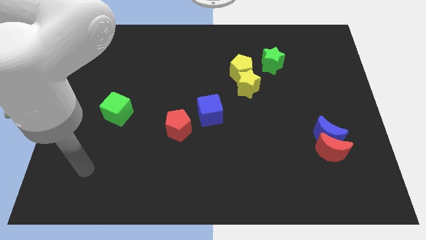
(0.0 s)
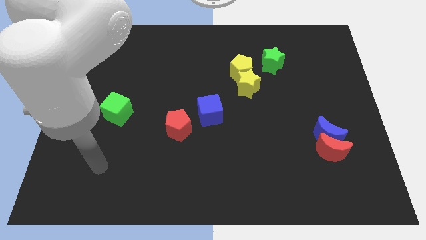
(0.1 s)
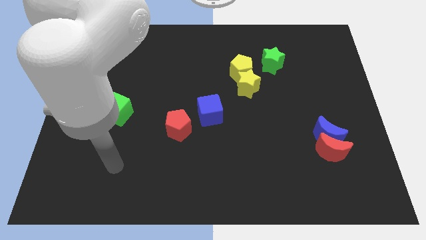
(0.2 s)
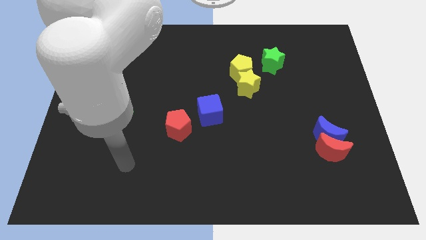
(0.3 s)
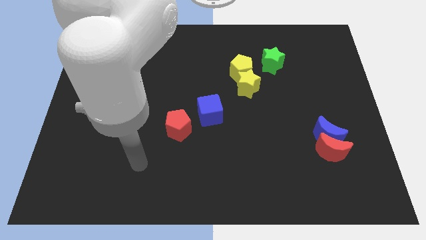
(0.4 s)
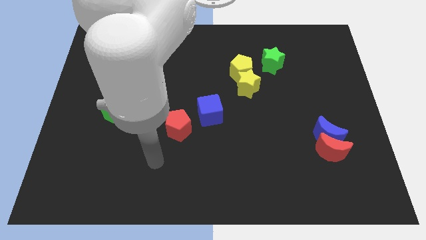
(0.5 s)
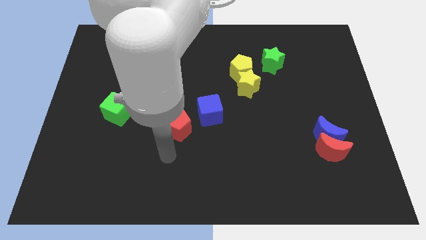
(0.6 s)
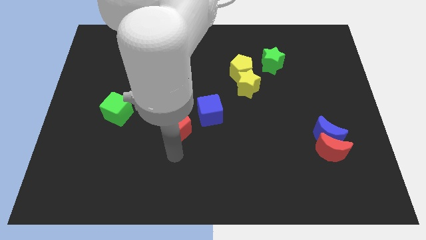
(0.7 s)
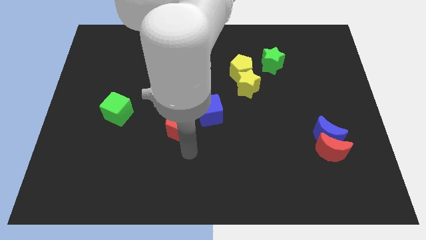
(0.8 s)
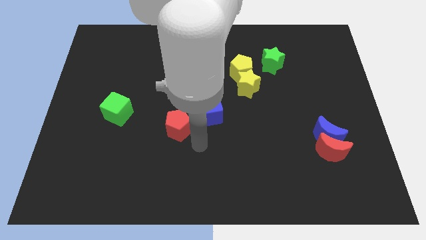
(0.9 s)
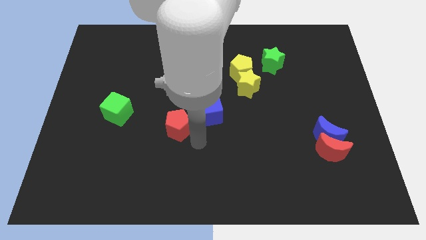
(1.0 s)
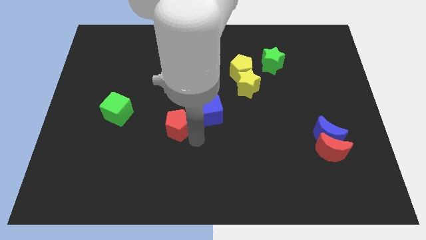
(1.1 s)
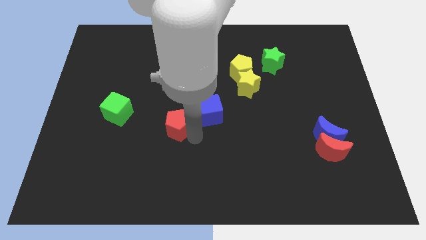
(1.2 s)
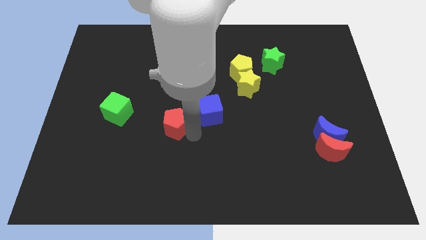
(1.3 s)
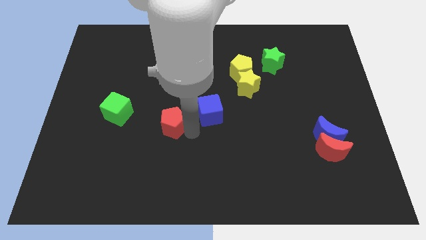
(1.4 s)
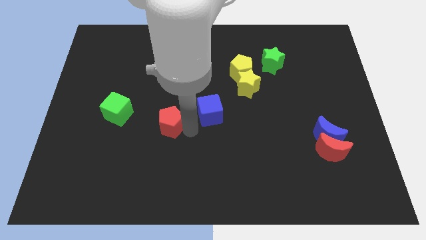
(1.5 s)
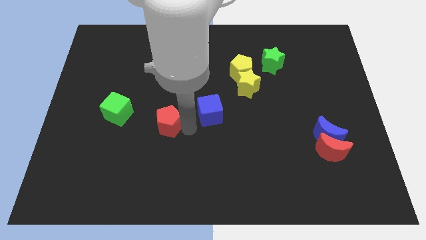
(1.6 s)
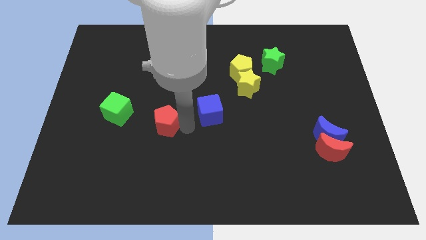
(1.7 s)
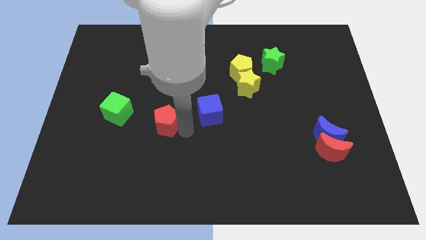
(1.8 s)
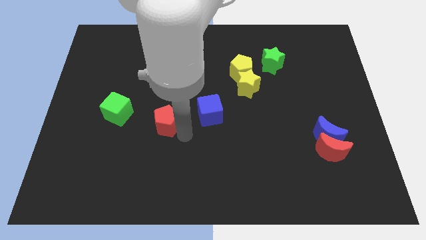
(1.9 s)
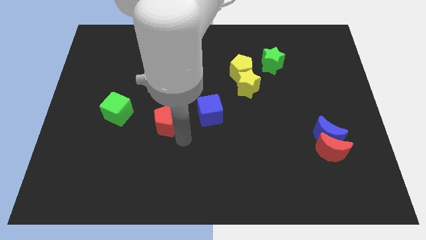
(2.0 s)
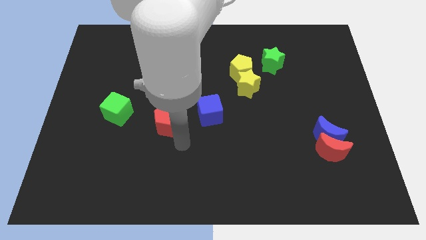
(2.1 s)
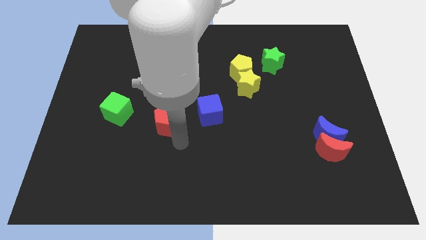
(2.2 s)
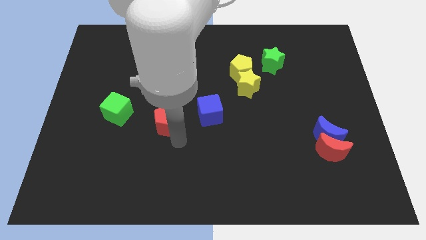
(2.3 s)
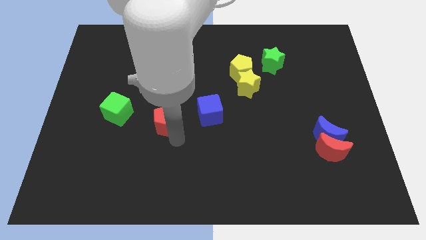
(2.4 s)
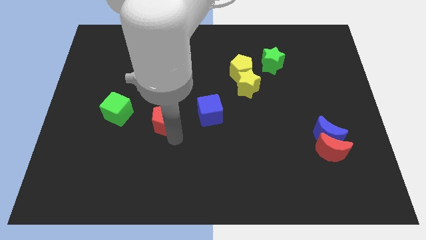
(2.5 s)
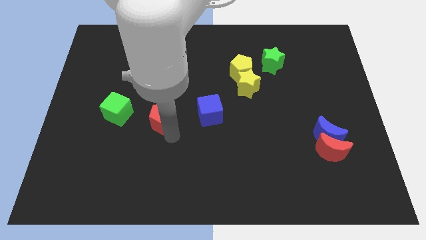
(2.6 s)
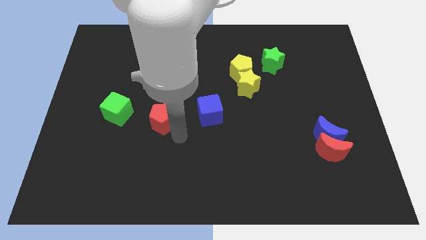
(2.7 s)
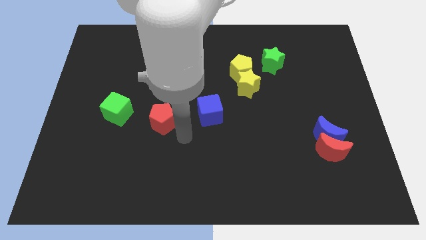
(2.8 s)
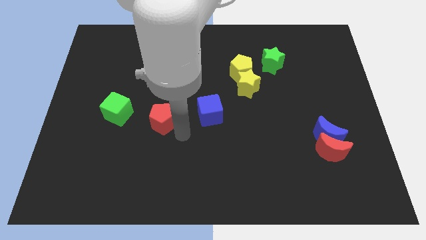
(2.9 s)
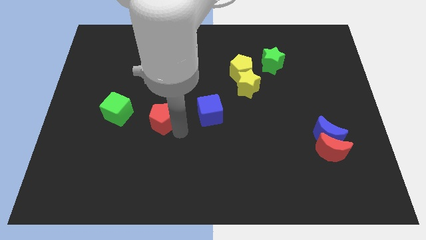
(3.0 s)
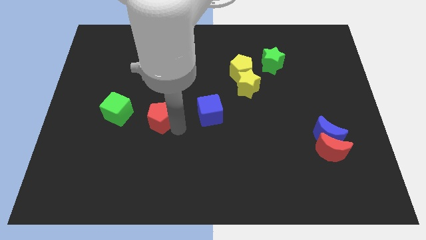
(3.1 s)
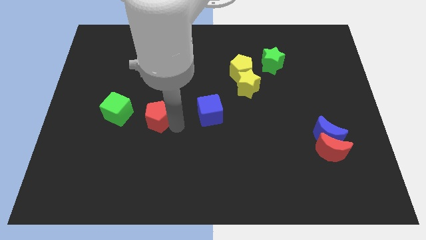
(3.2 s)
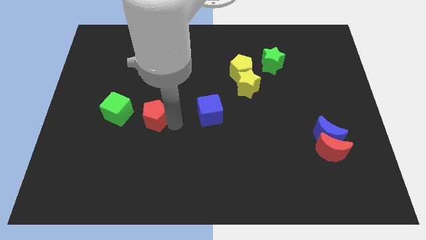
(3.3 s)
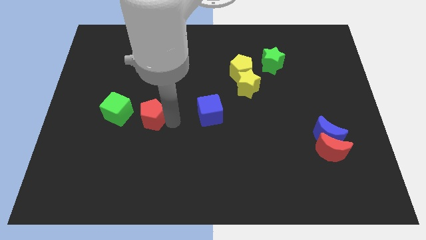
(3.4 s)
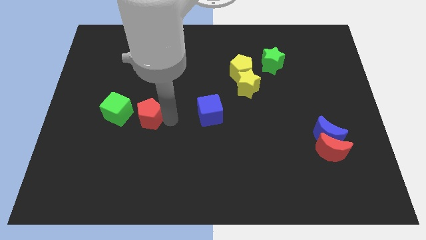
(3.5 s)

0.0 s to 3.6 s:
push the red pentagon up and left a little bit

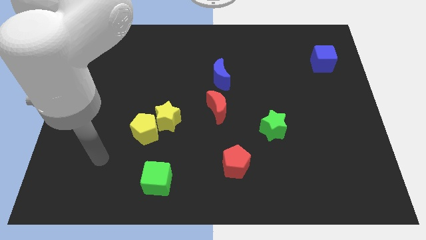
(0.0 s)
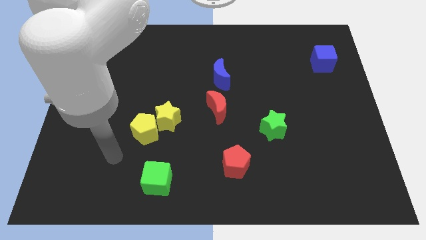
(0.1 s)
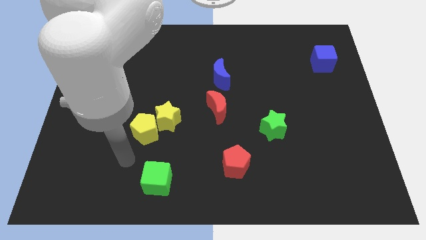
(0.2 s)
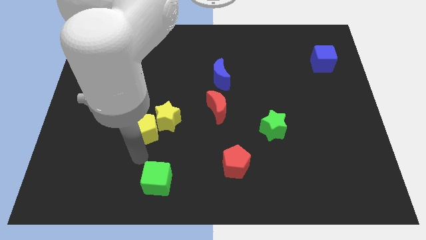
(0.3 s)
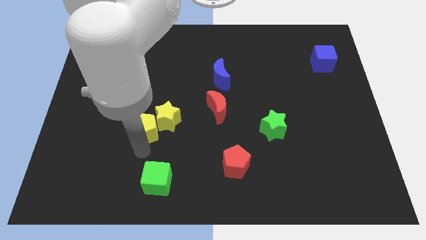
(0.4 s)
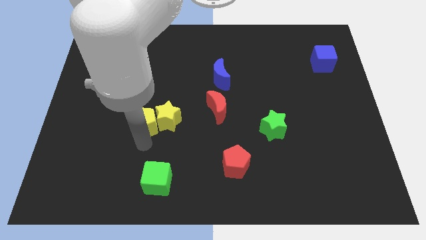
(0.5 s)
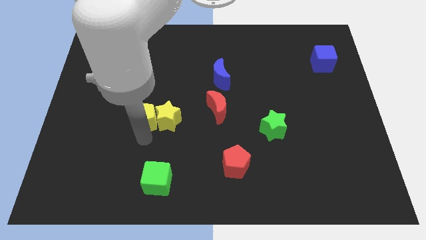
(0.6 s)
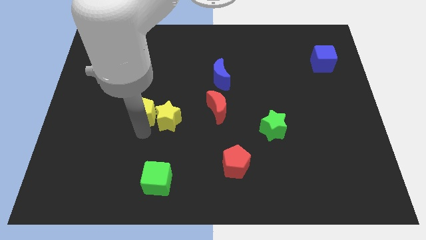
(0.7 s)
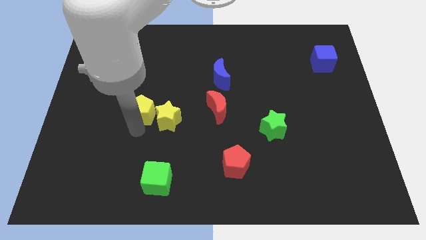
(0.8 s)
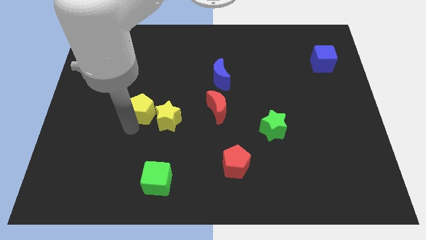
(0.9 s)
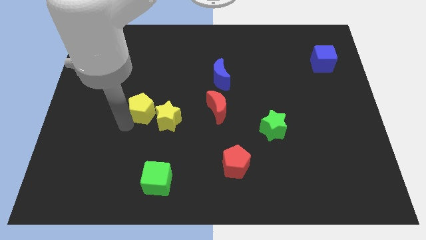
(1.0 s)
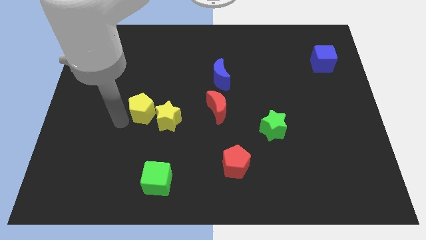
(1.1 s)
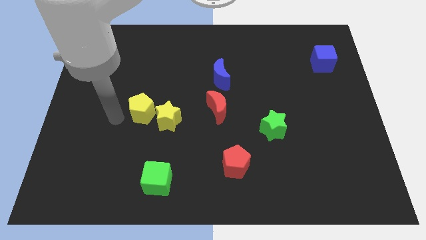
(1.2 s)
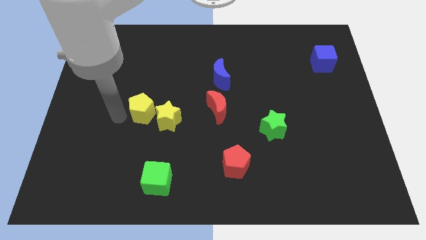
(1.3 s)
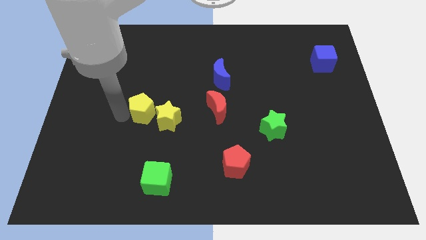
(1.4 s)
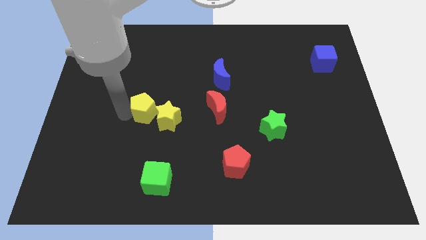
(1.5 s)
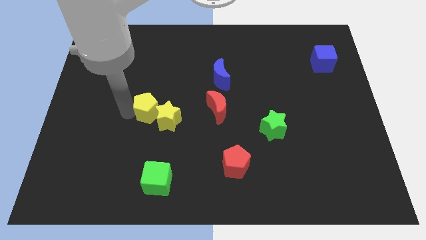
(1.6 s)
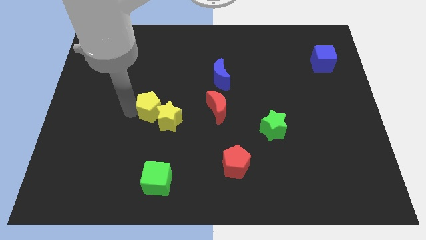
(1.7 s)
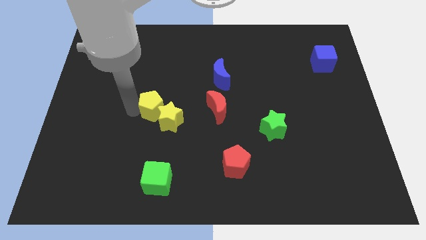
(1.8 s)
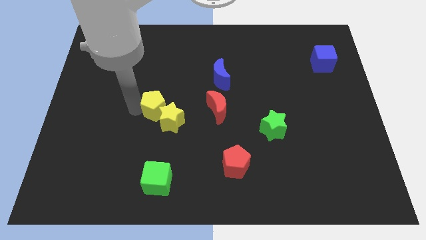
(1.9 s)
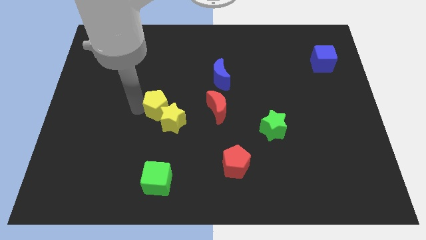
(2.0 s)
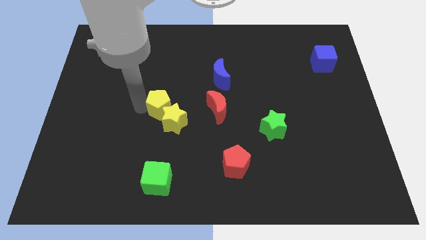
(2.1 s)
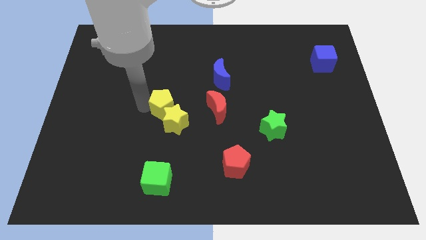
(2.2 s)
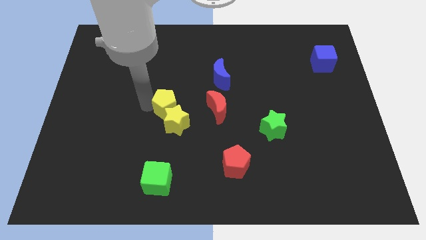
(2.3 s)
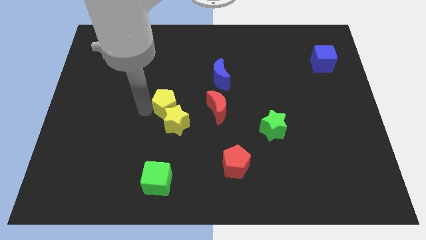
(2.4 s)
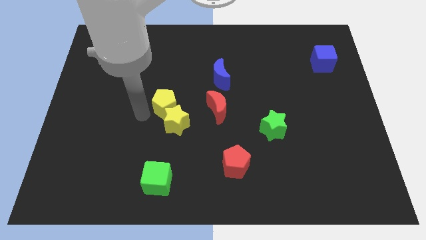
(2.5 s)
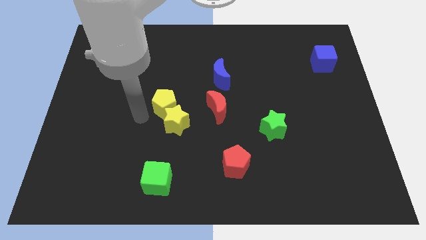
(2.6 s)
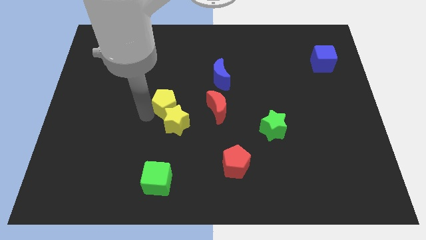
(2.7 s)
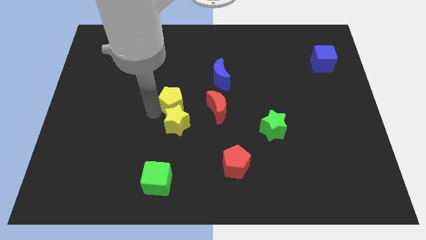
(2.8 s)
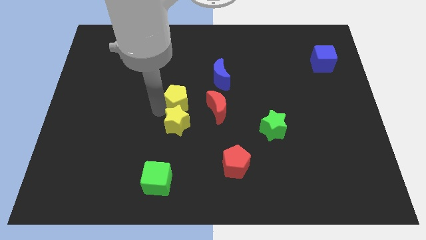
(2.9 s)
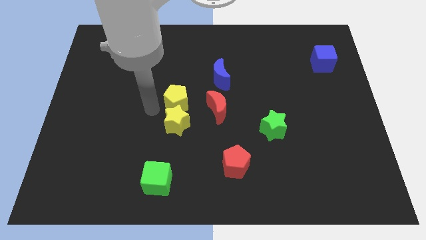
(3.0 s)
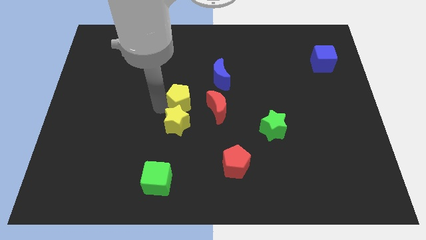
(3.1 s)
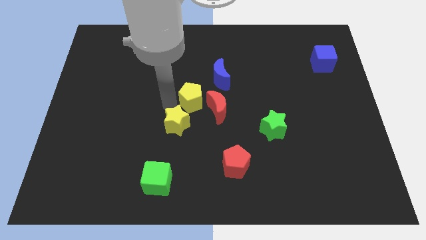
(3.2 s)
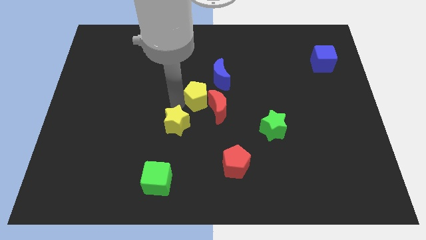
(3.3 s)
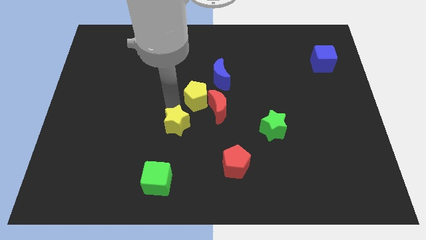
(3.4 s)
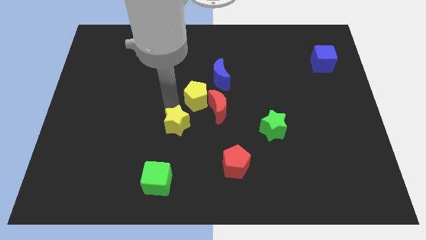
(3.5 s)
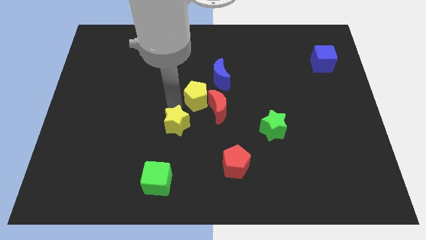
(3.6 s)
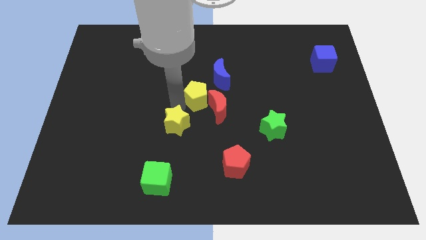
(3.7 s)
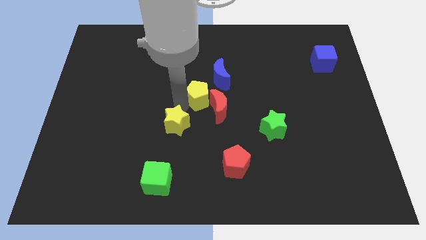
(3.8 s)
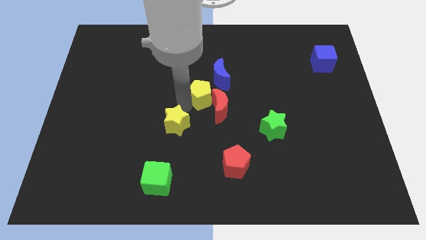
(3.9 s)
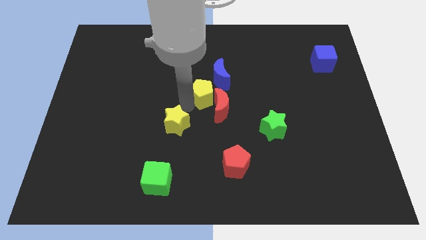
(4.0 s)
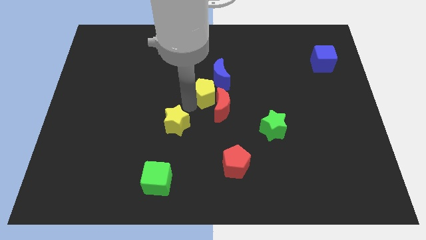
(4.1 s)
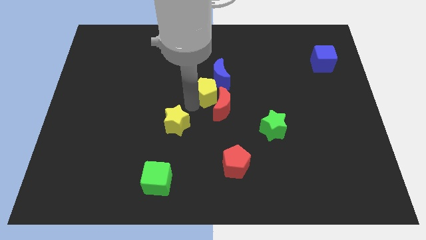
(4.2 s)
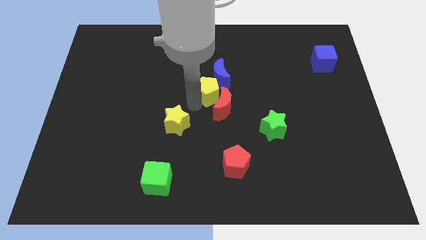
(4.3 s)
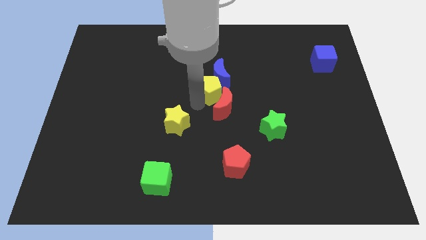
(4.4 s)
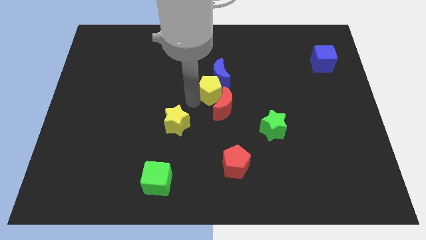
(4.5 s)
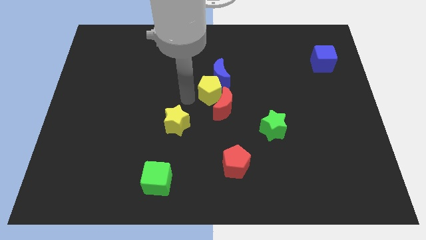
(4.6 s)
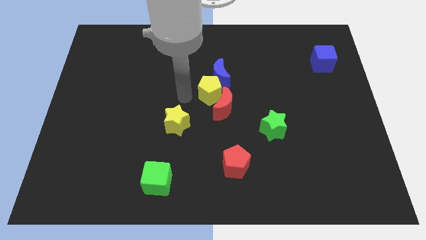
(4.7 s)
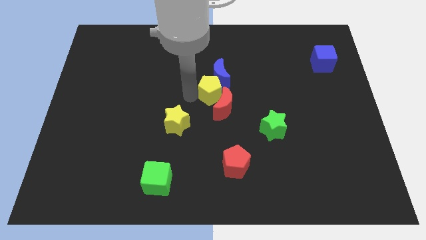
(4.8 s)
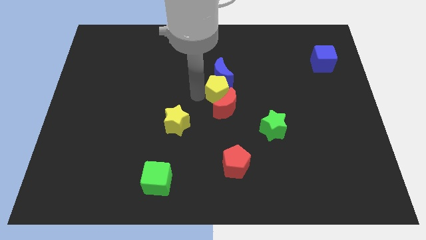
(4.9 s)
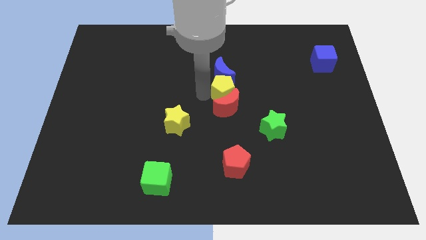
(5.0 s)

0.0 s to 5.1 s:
move the yellow pentagon upwards and right
